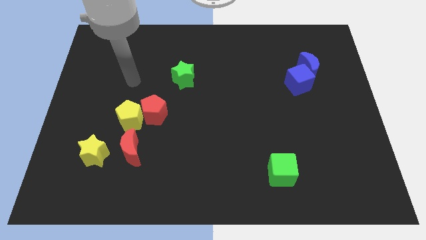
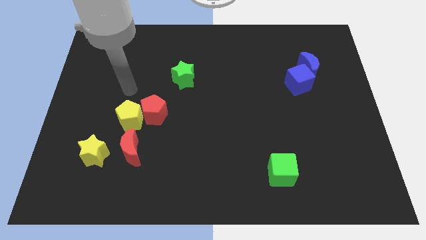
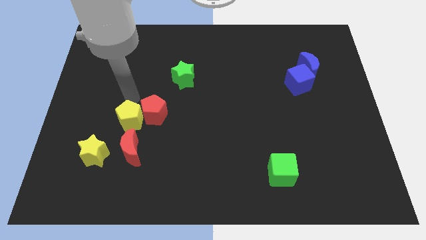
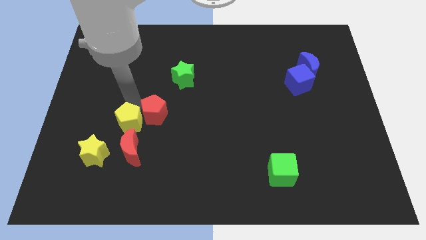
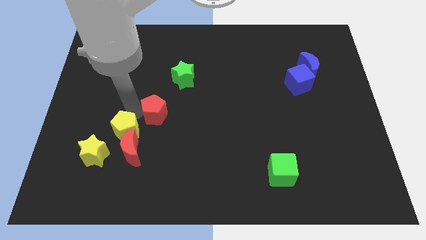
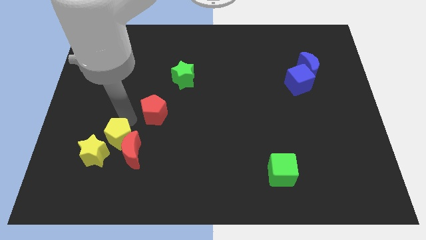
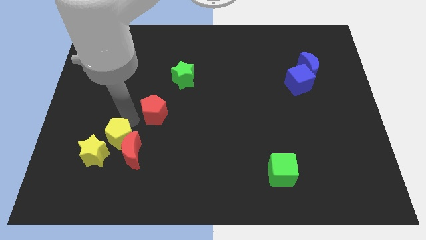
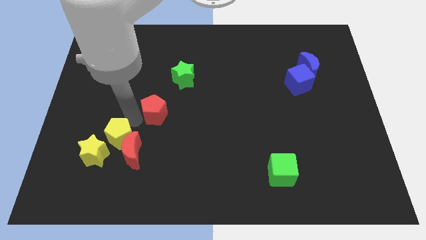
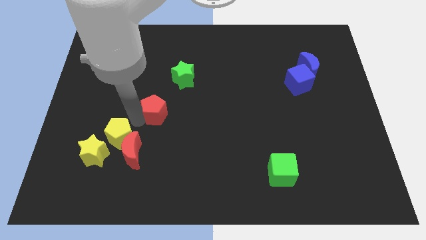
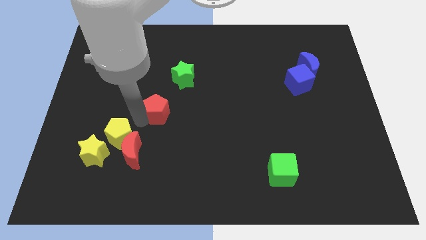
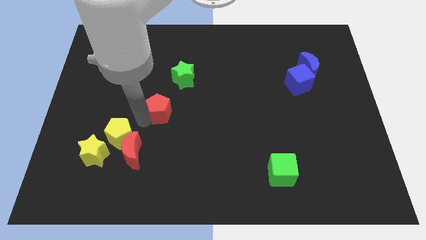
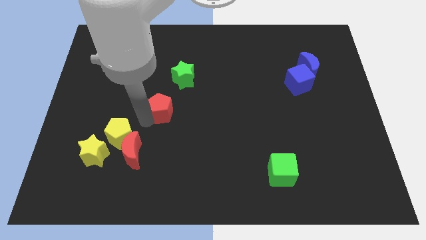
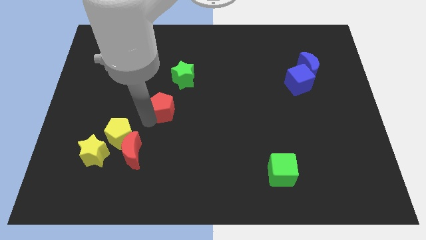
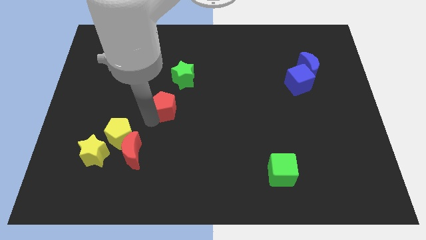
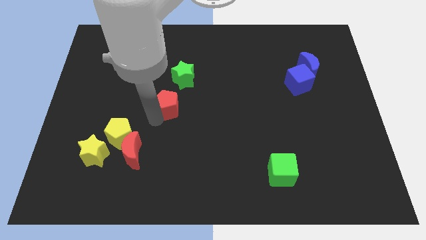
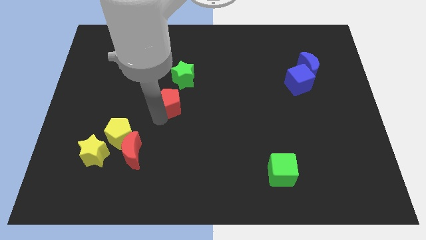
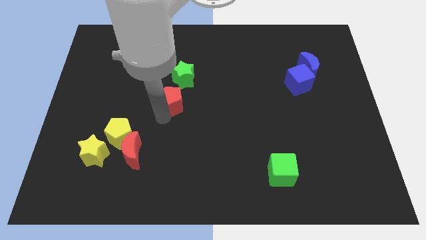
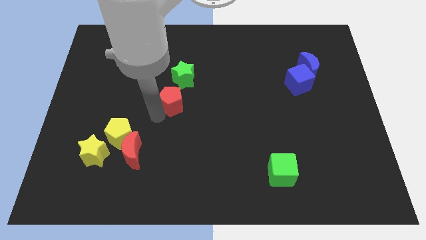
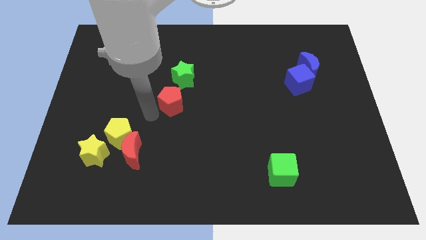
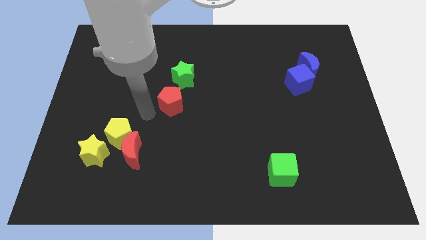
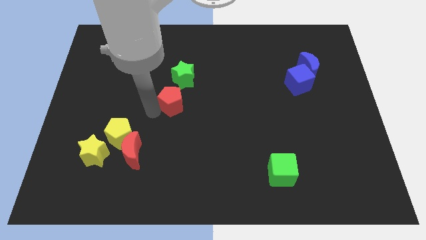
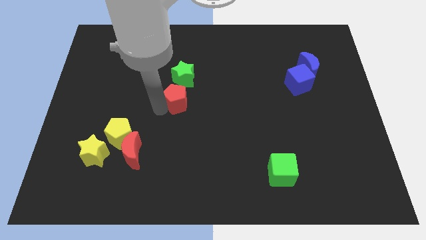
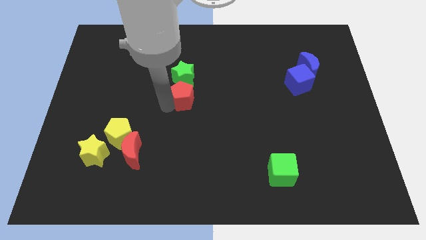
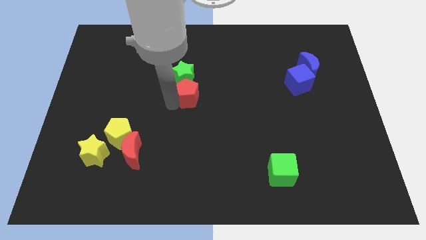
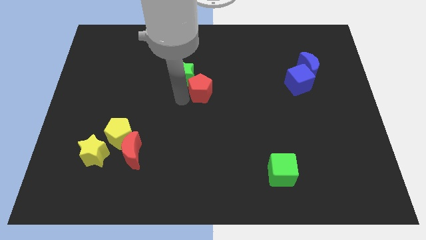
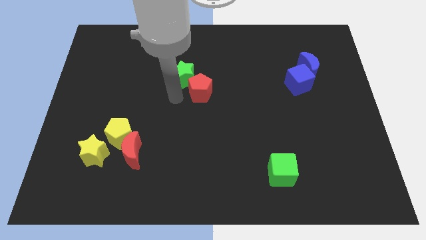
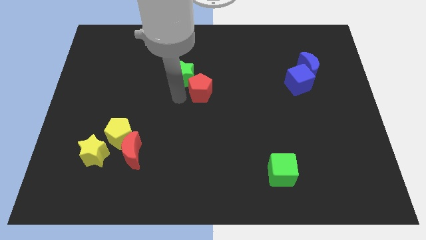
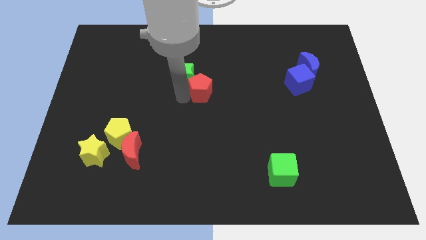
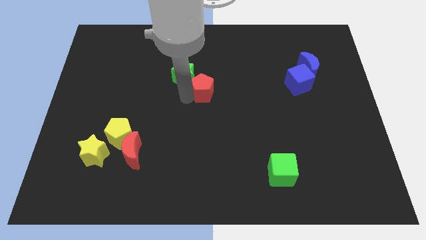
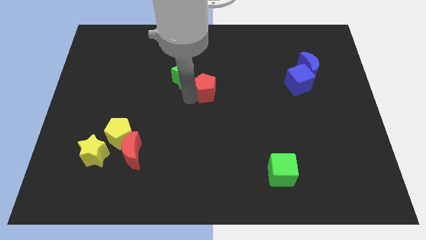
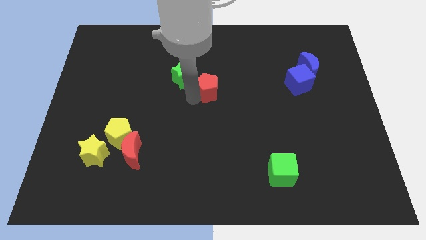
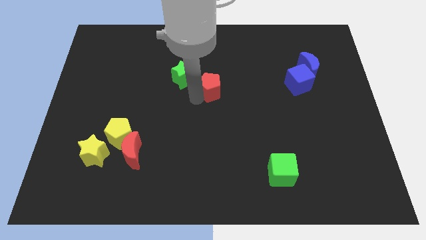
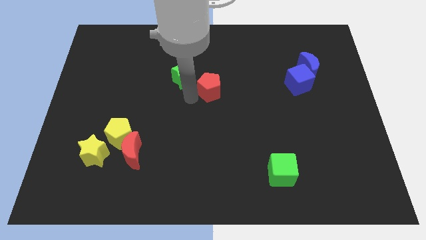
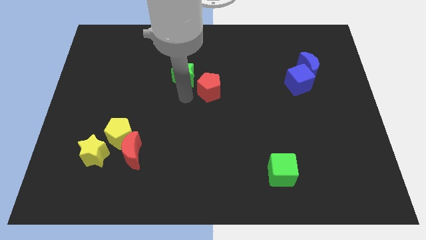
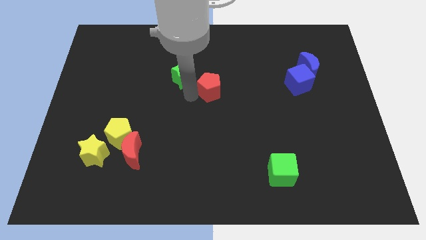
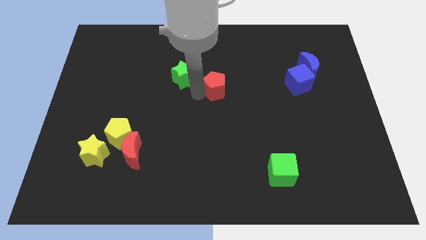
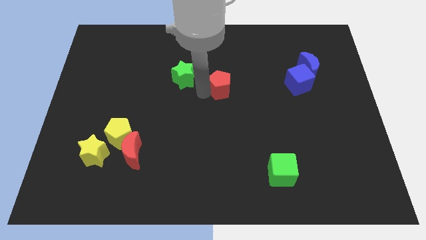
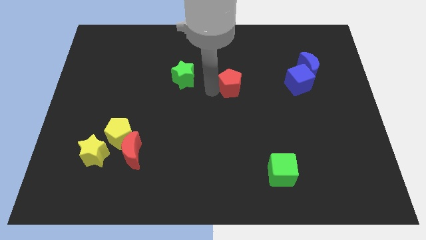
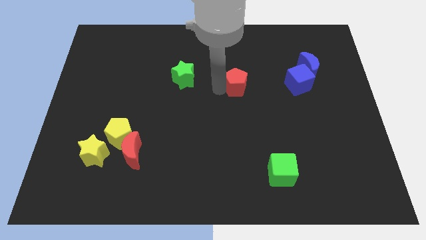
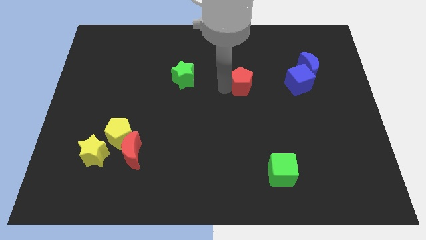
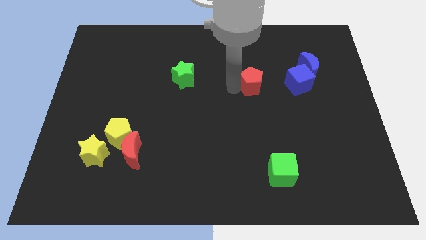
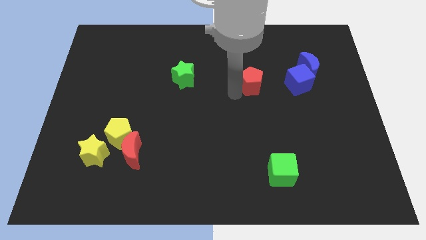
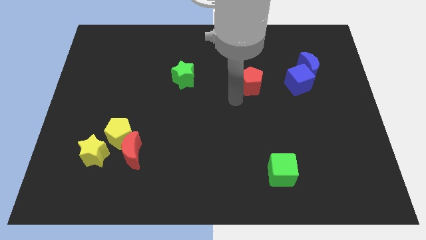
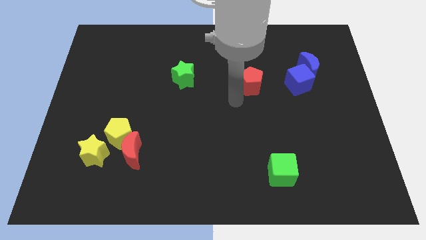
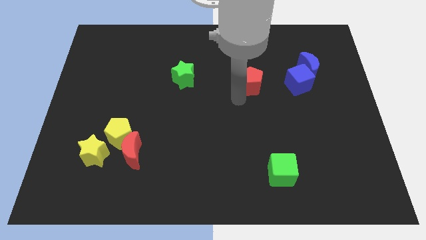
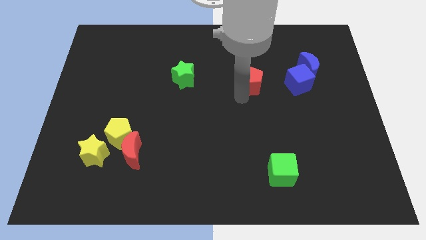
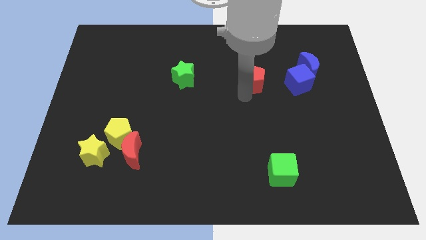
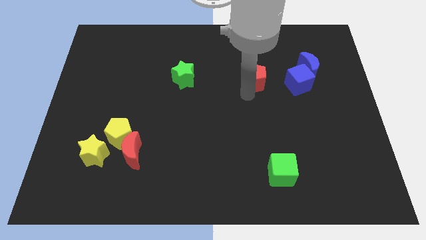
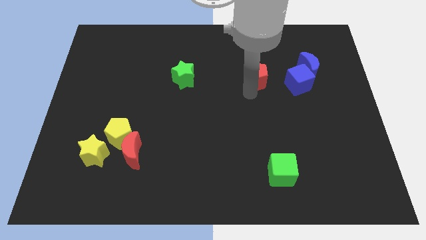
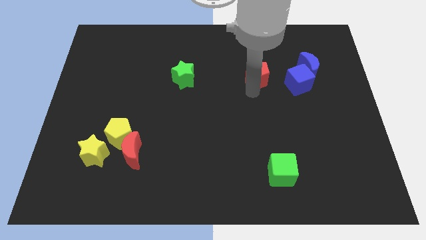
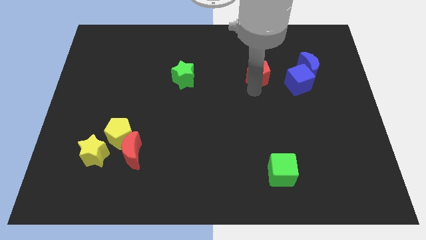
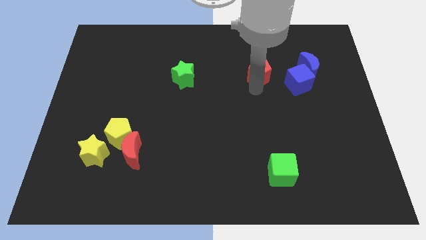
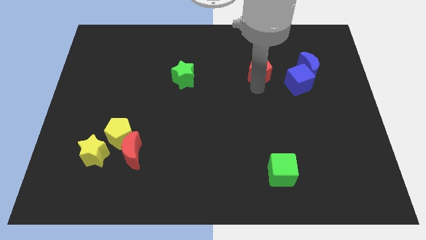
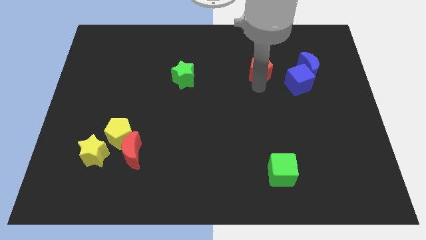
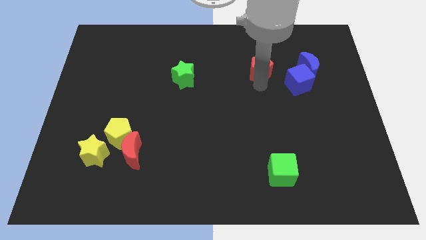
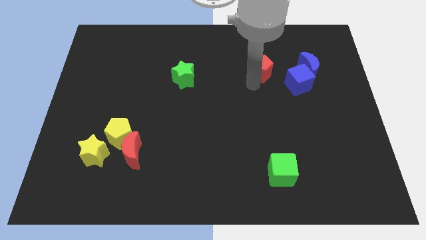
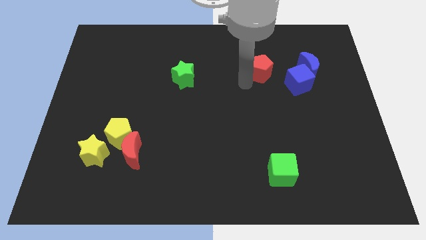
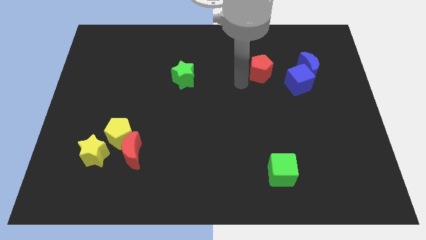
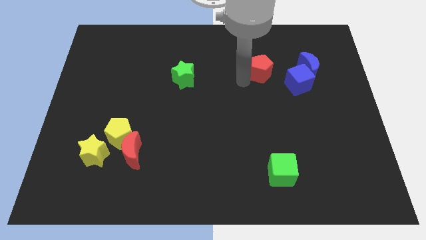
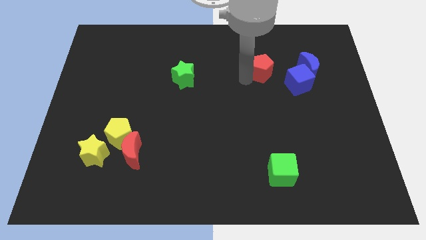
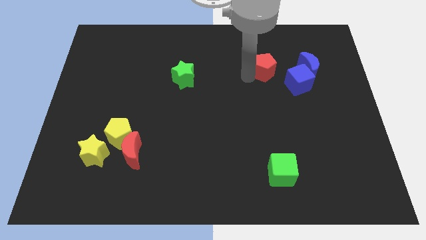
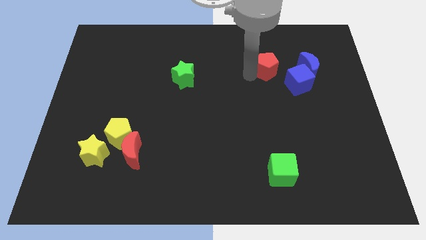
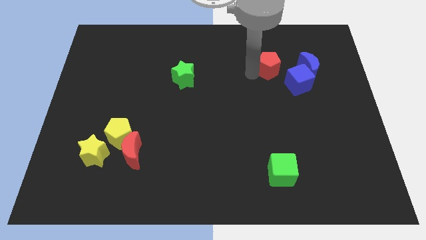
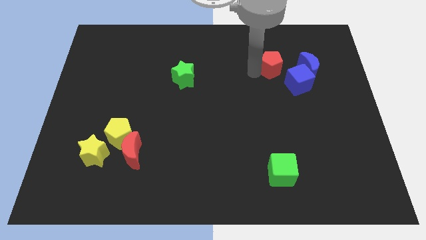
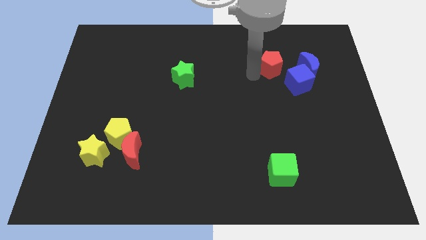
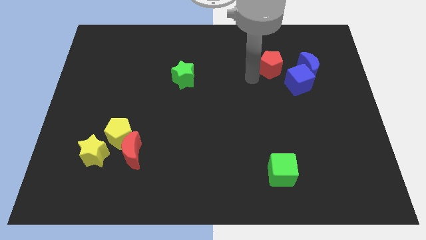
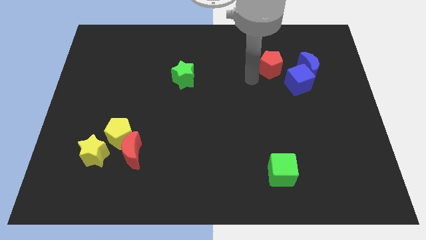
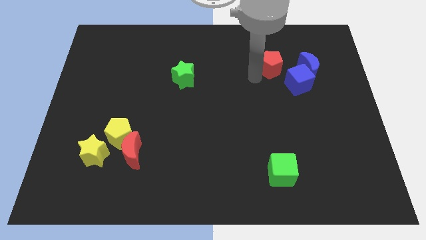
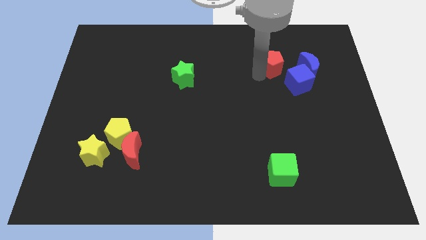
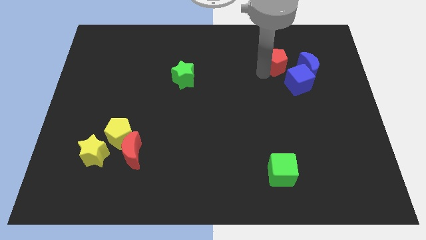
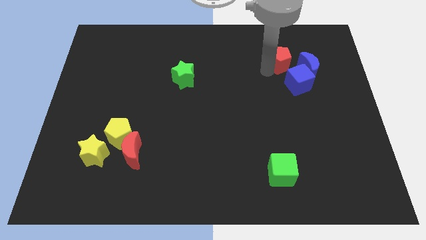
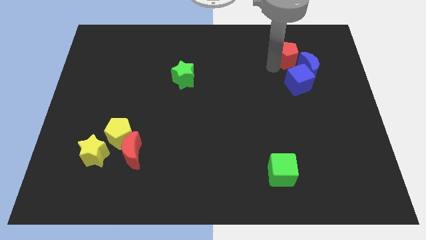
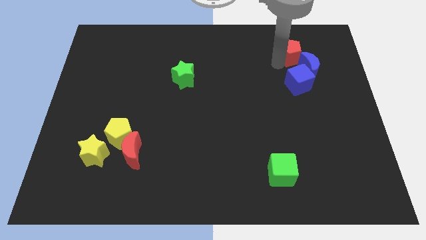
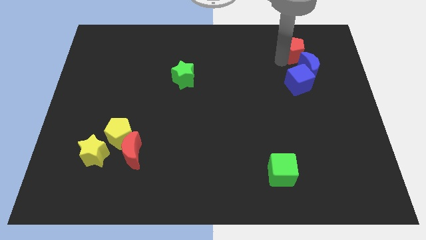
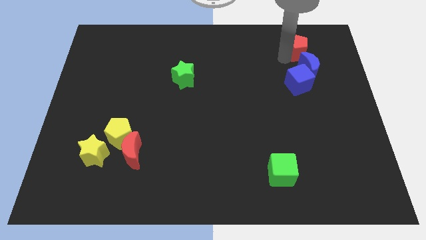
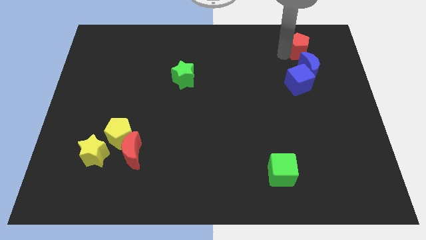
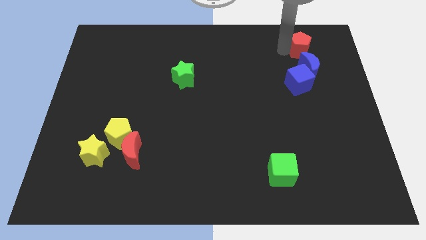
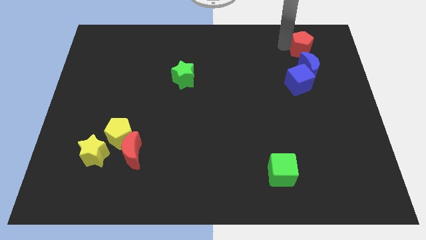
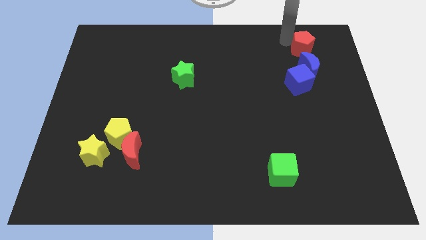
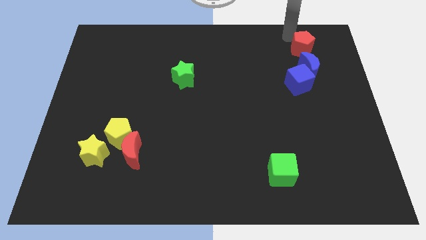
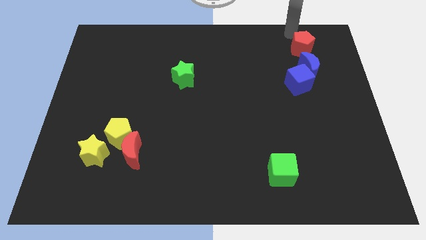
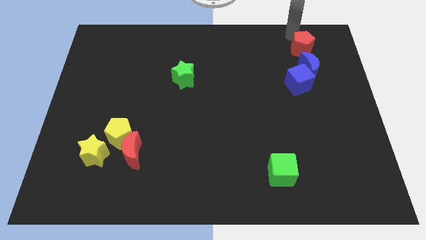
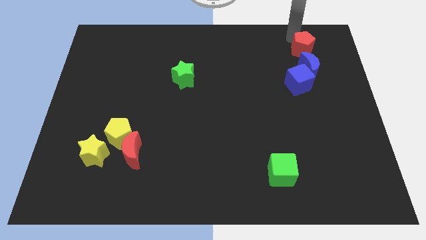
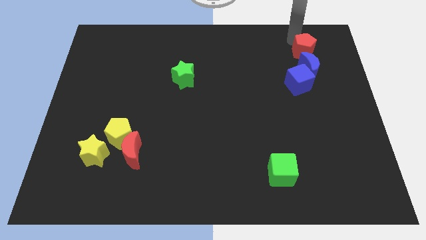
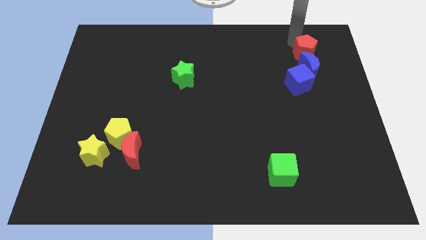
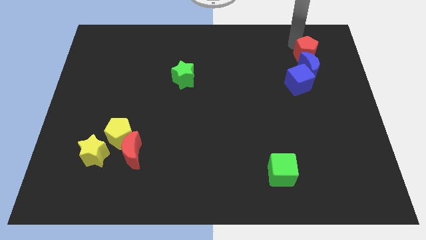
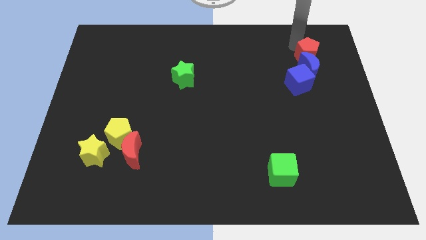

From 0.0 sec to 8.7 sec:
move the red pentagon to the top right of the blue cube
